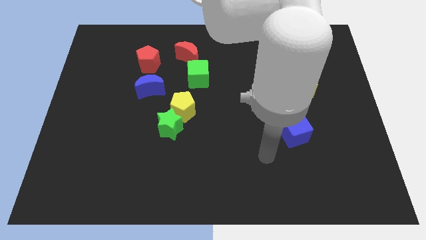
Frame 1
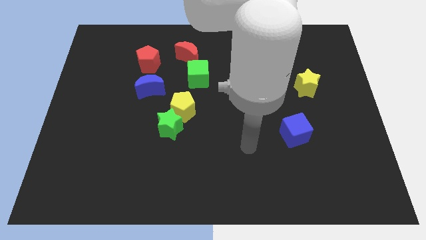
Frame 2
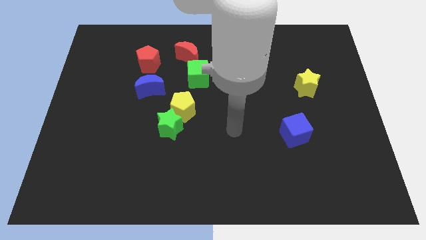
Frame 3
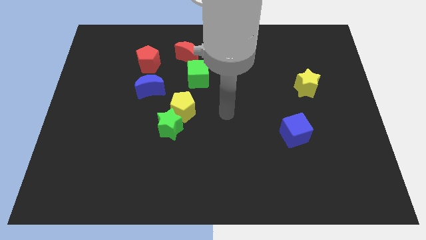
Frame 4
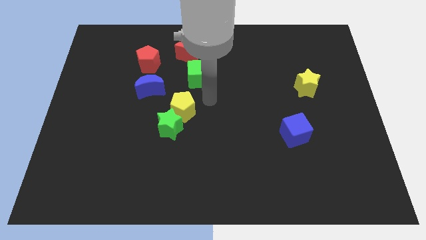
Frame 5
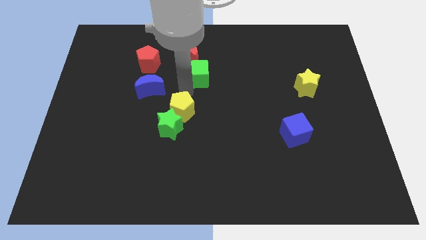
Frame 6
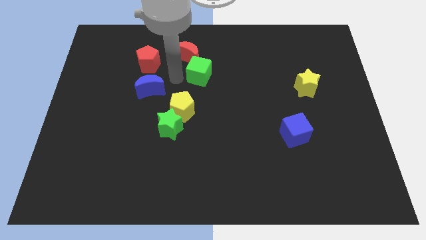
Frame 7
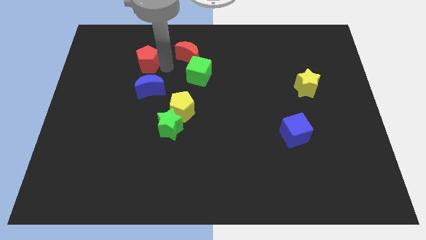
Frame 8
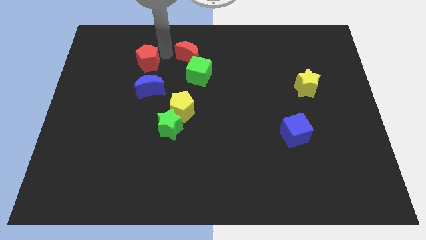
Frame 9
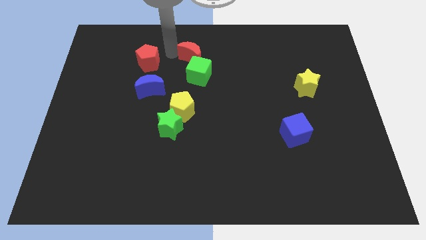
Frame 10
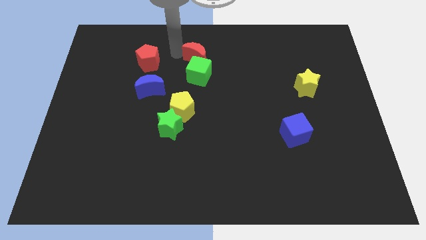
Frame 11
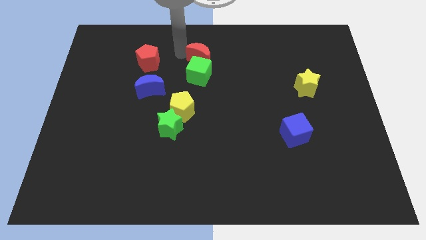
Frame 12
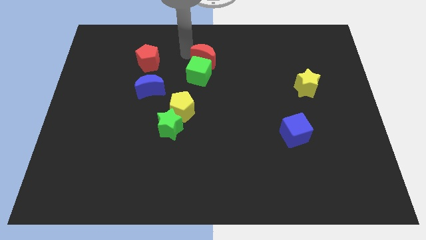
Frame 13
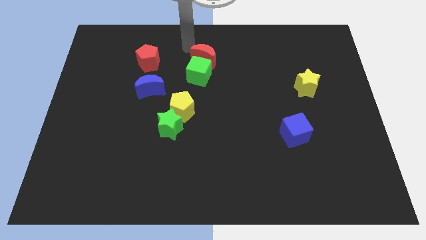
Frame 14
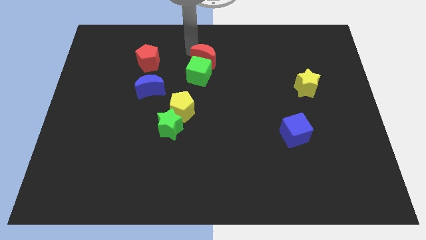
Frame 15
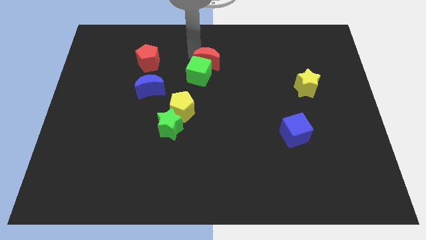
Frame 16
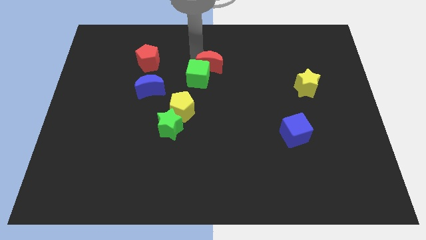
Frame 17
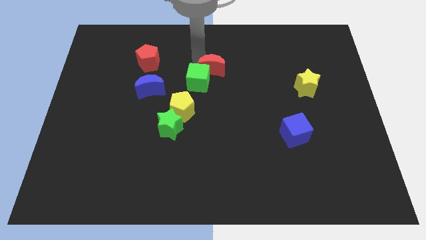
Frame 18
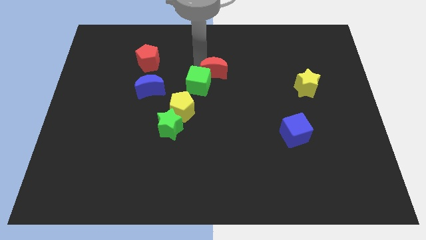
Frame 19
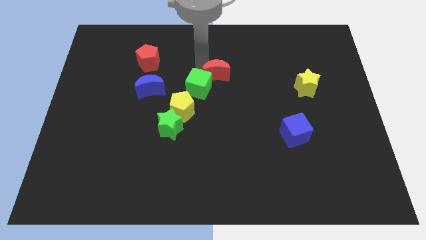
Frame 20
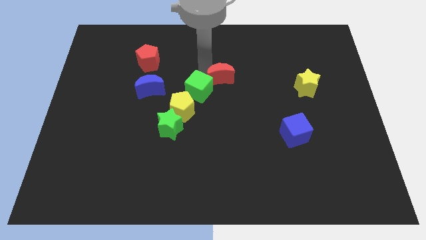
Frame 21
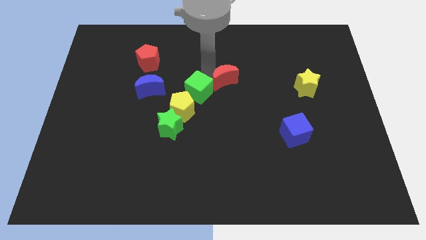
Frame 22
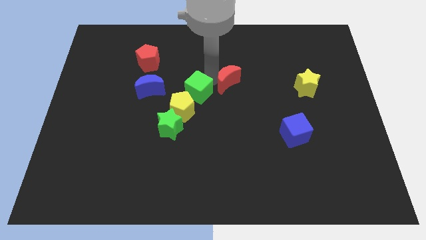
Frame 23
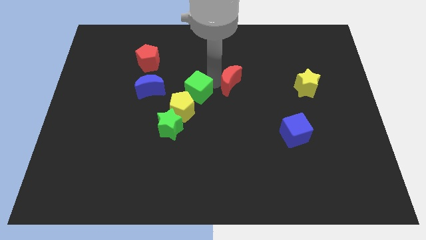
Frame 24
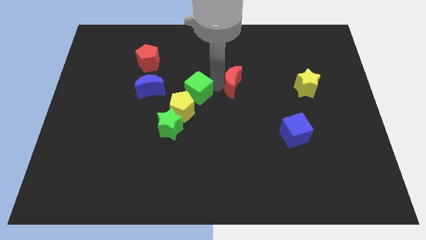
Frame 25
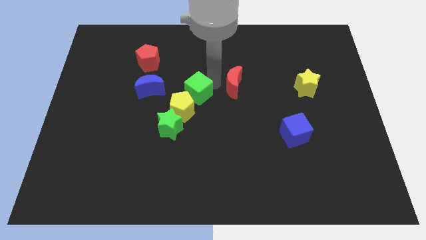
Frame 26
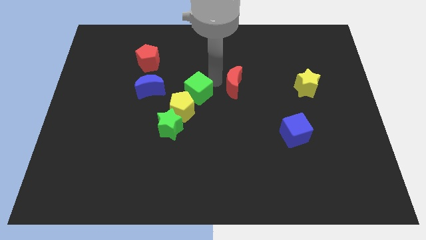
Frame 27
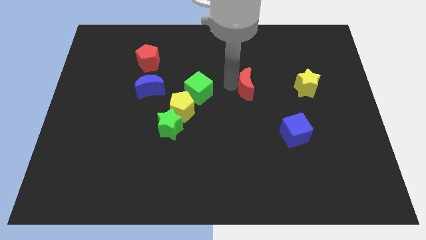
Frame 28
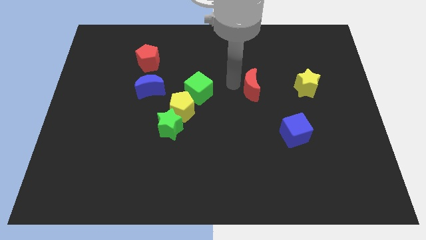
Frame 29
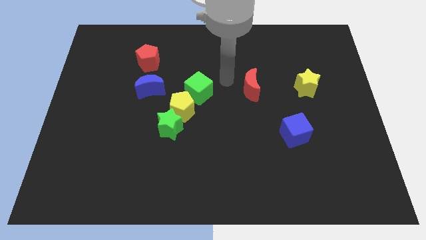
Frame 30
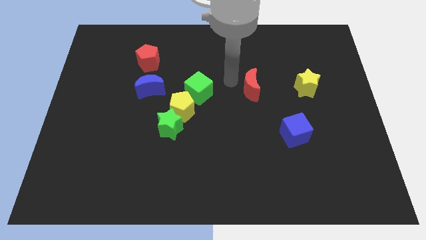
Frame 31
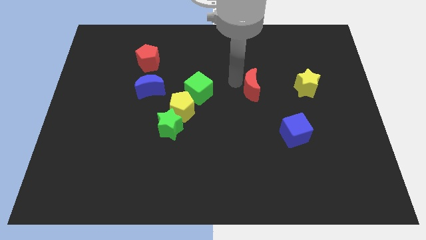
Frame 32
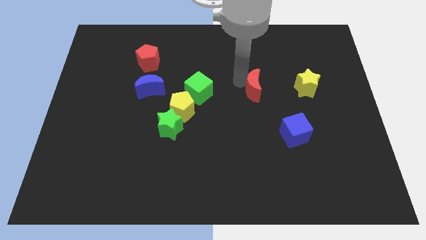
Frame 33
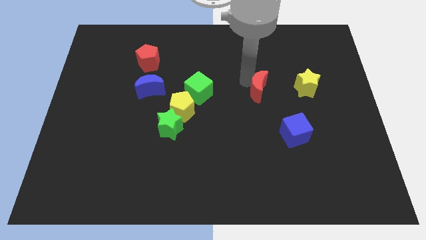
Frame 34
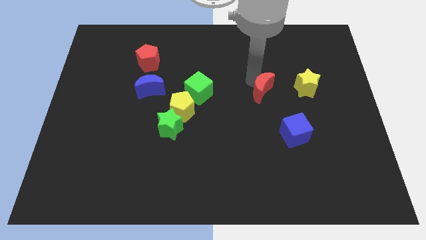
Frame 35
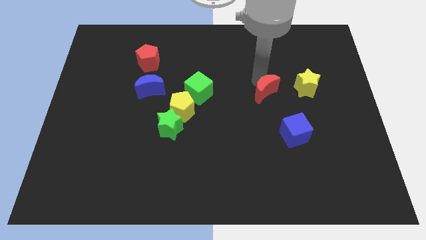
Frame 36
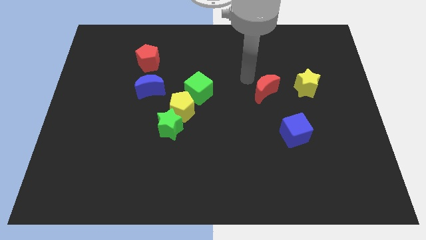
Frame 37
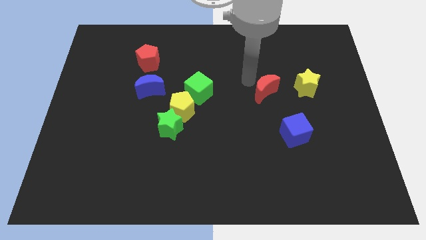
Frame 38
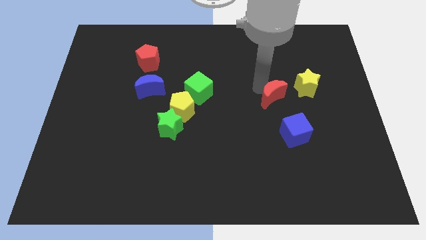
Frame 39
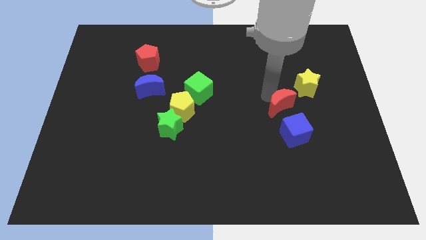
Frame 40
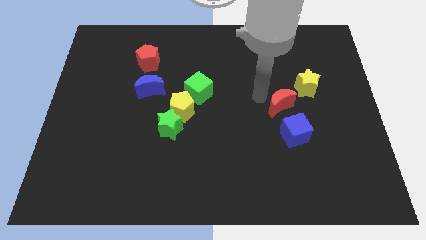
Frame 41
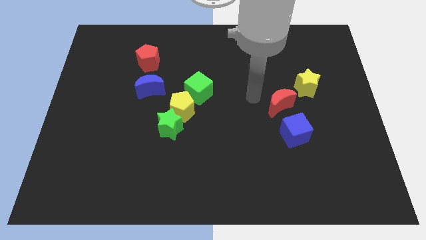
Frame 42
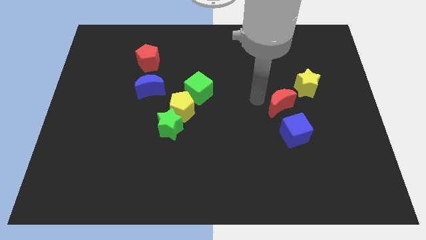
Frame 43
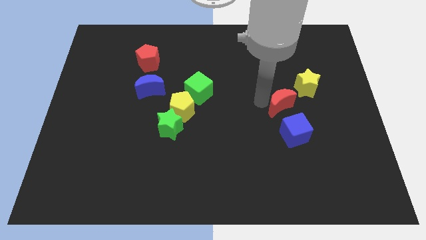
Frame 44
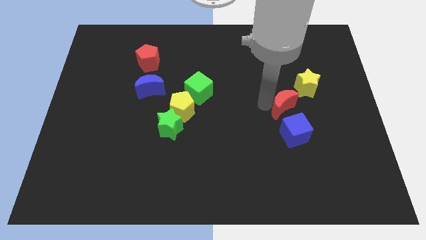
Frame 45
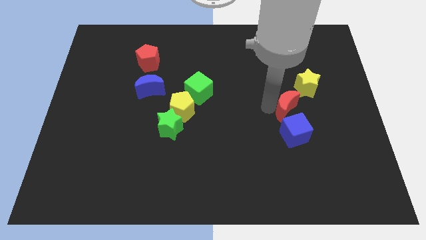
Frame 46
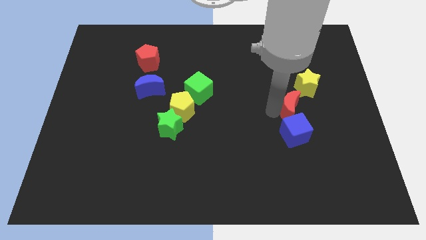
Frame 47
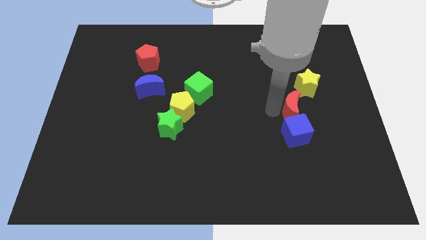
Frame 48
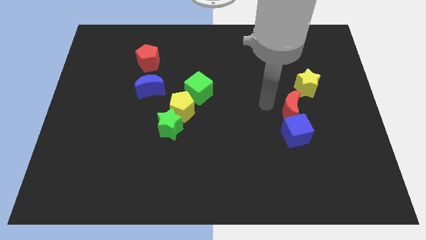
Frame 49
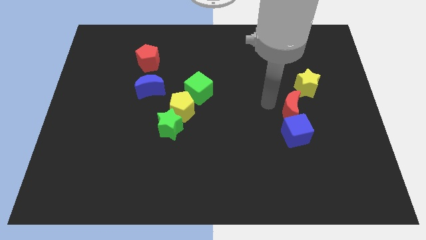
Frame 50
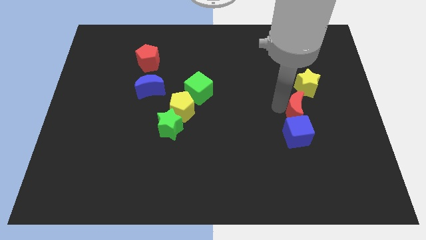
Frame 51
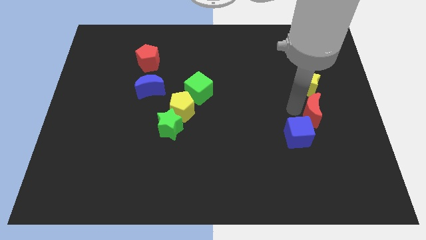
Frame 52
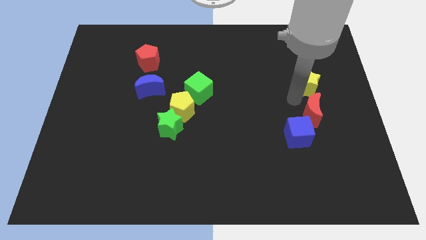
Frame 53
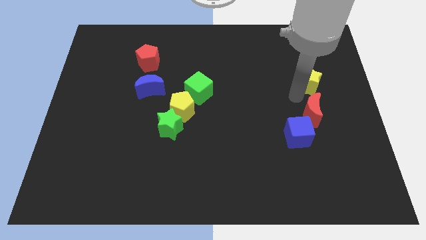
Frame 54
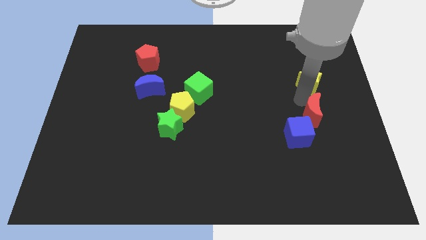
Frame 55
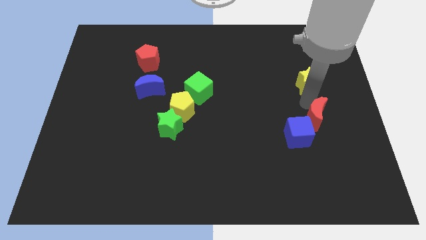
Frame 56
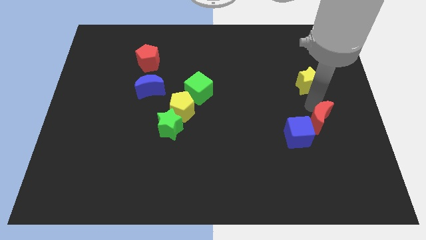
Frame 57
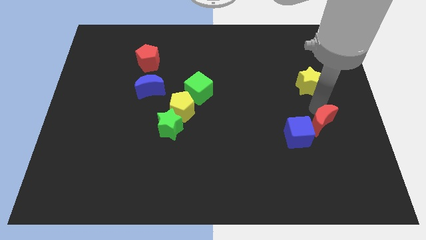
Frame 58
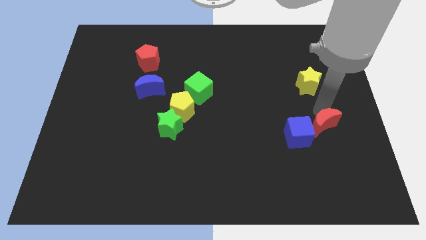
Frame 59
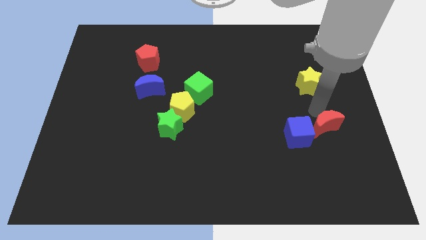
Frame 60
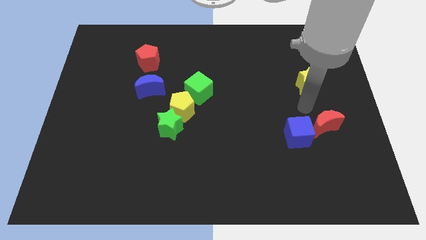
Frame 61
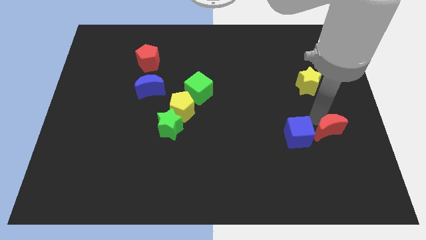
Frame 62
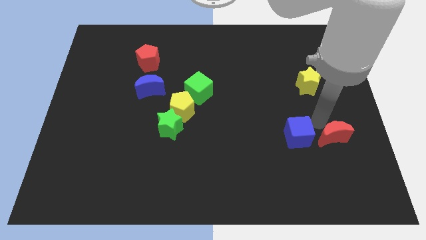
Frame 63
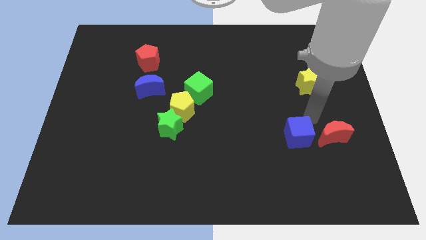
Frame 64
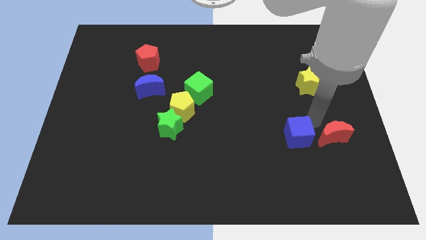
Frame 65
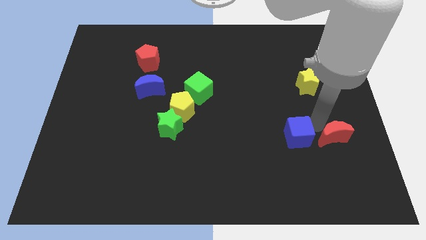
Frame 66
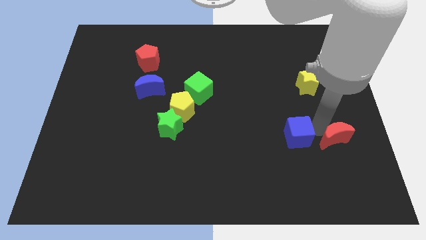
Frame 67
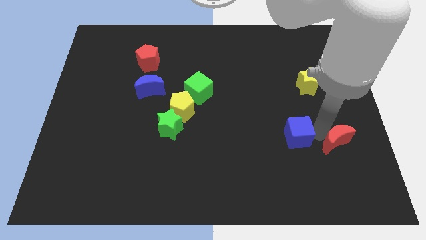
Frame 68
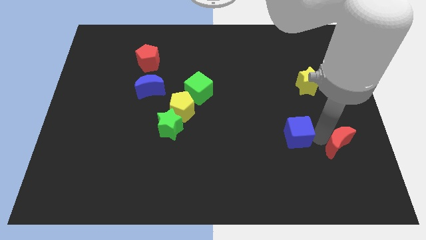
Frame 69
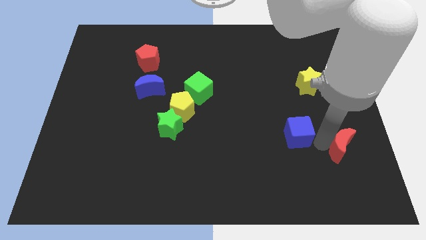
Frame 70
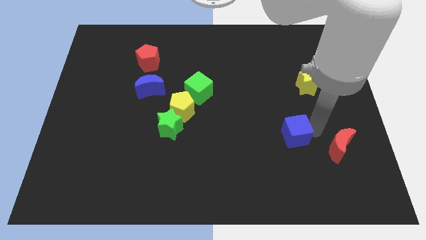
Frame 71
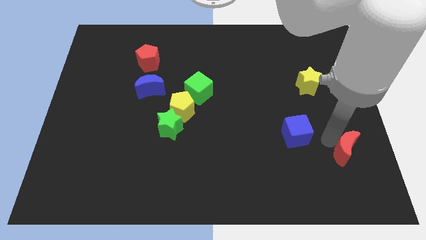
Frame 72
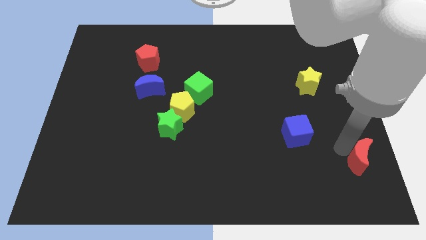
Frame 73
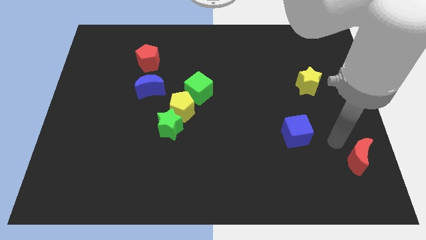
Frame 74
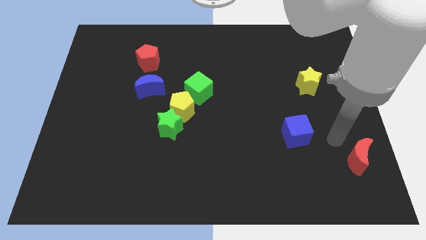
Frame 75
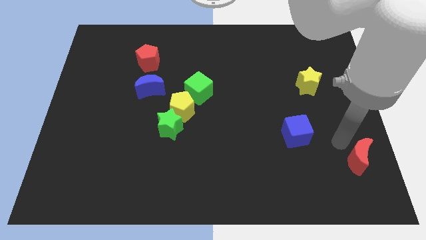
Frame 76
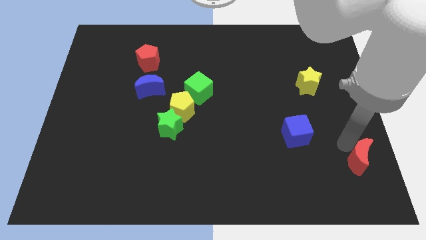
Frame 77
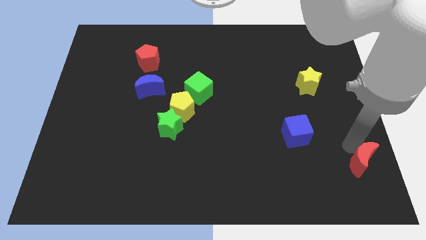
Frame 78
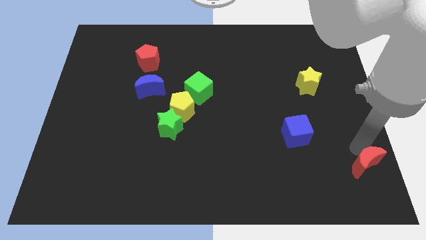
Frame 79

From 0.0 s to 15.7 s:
move the red moon to the bottom right corner

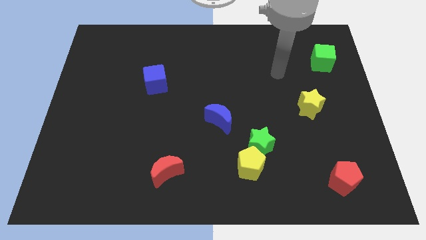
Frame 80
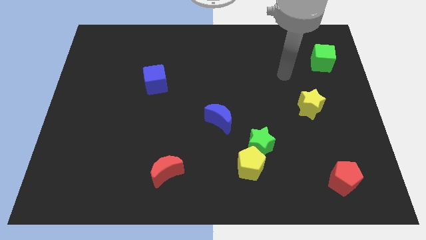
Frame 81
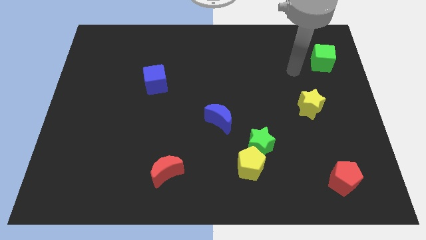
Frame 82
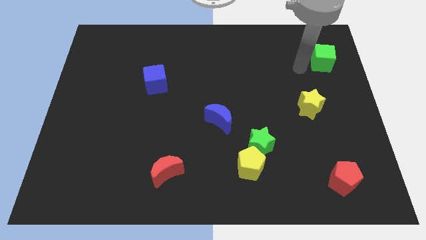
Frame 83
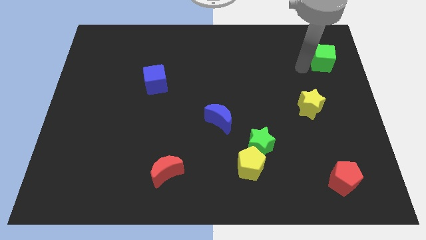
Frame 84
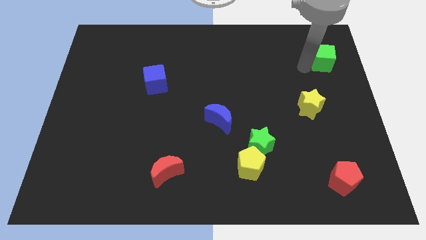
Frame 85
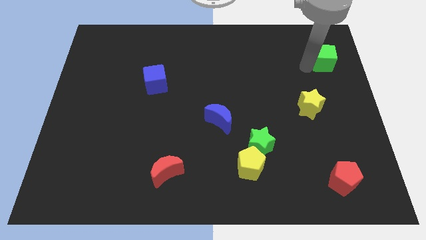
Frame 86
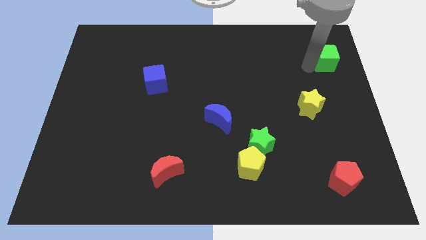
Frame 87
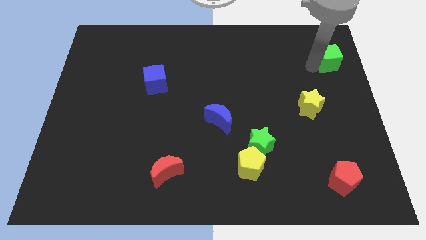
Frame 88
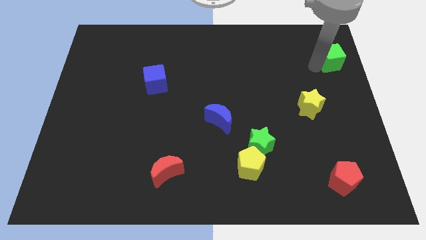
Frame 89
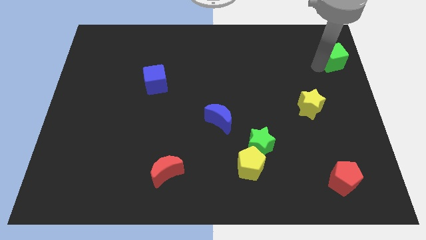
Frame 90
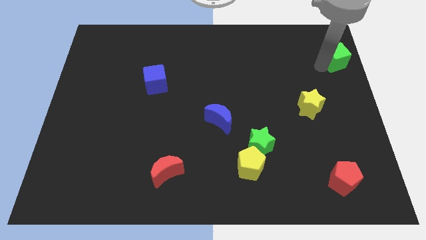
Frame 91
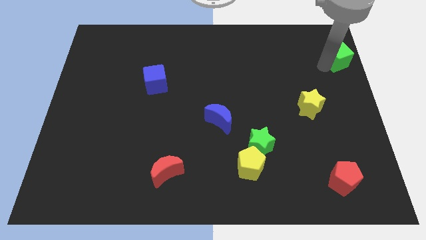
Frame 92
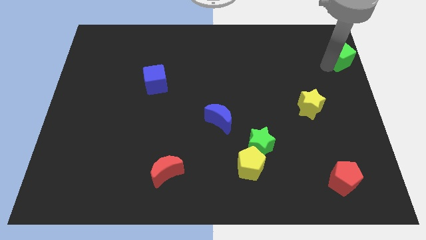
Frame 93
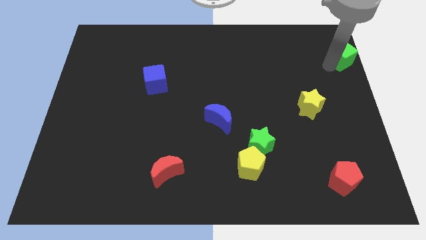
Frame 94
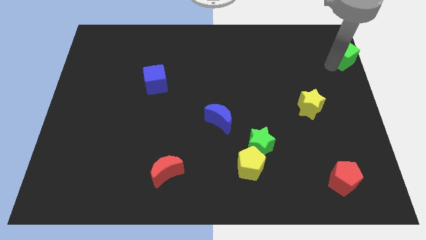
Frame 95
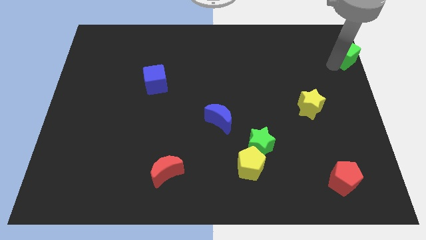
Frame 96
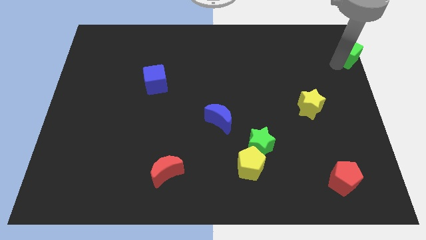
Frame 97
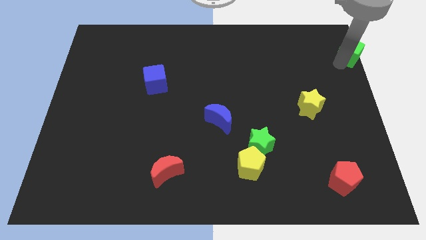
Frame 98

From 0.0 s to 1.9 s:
slide the green cube to the upper right corner
